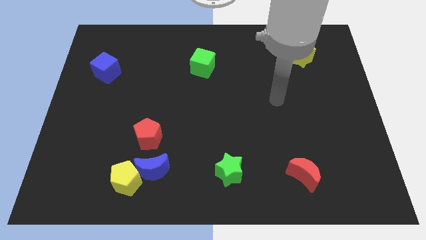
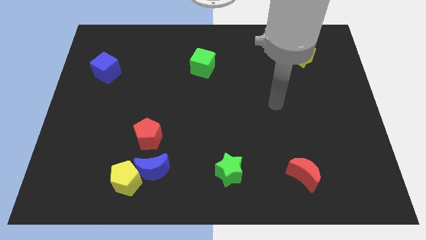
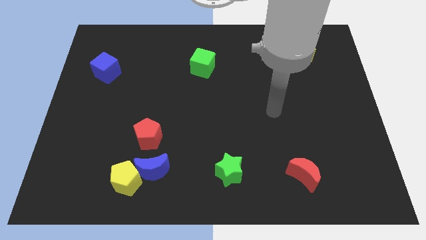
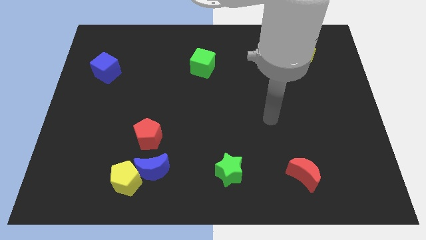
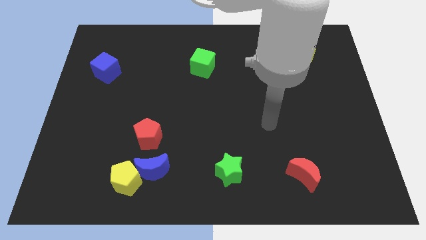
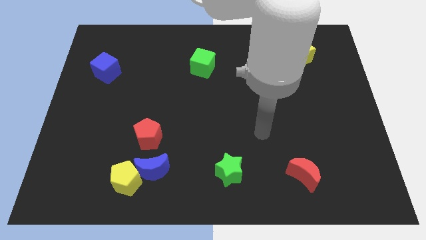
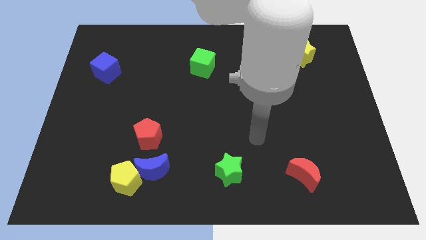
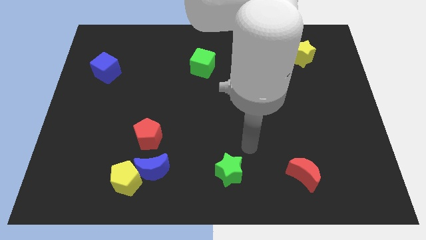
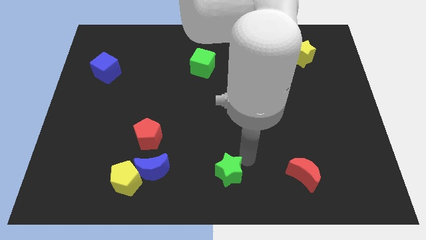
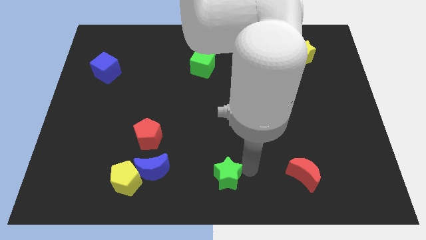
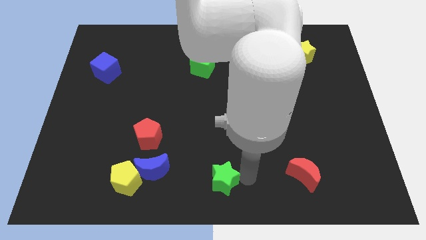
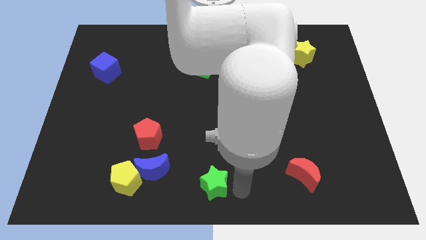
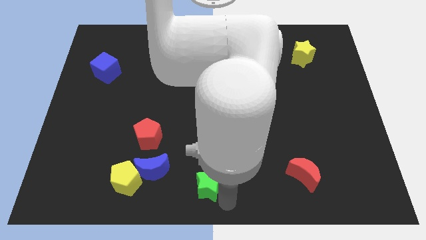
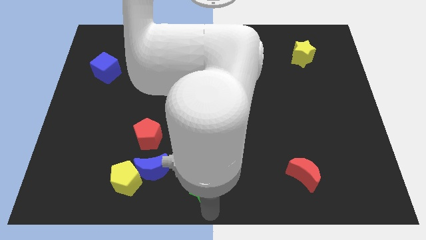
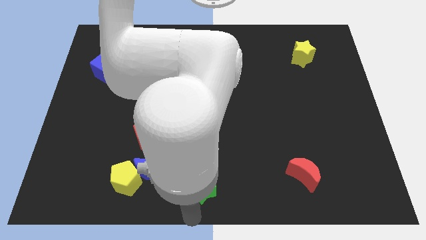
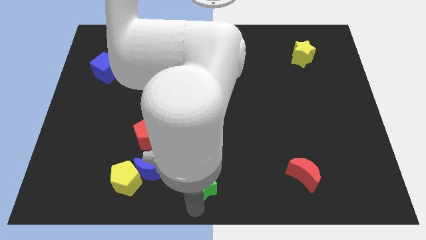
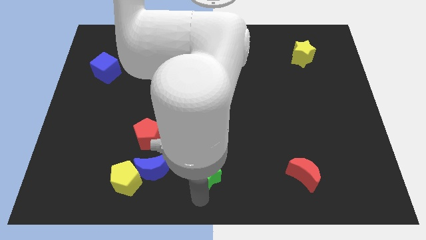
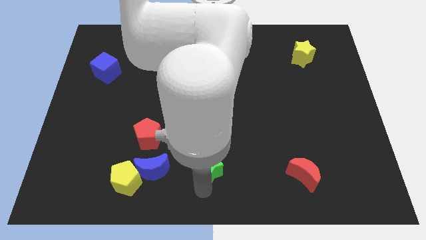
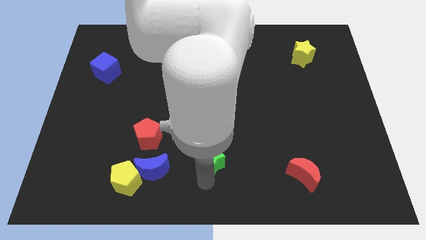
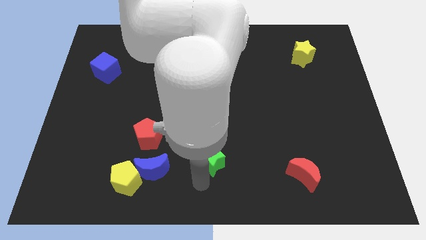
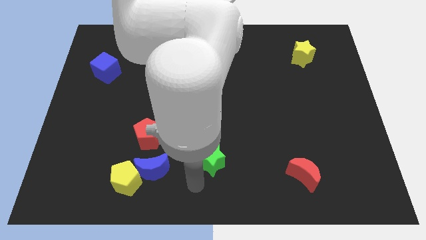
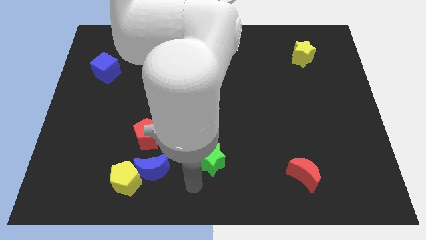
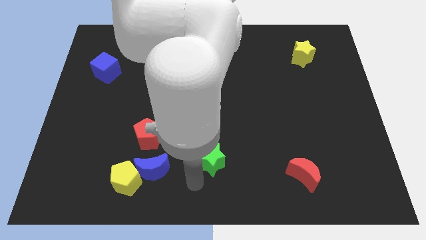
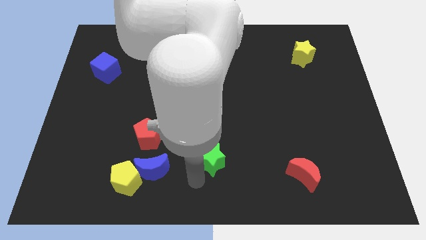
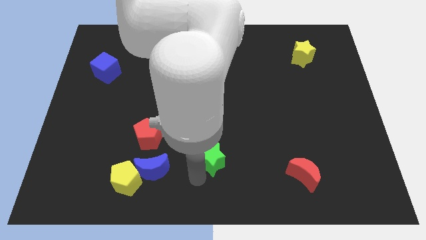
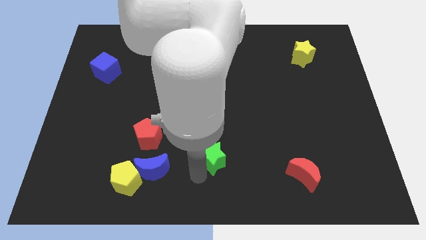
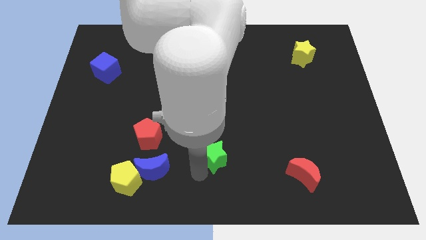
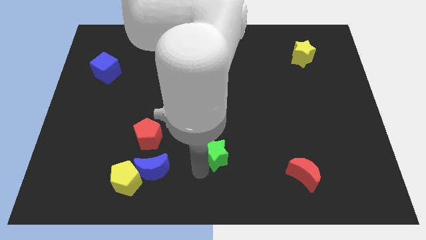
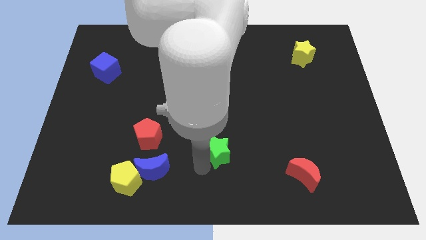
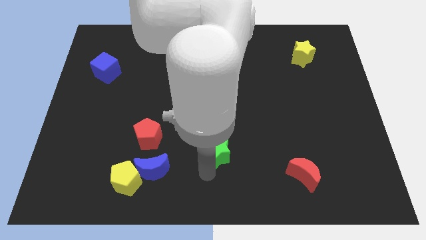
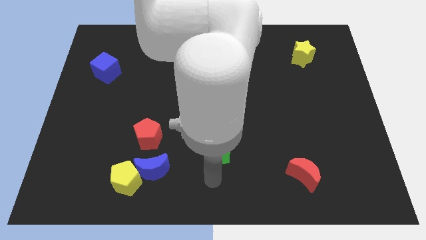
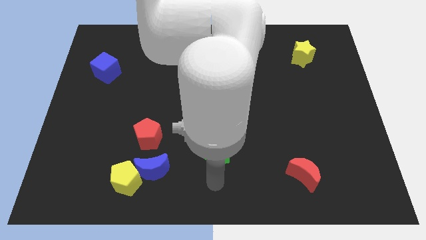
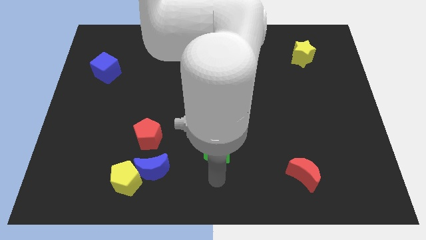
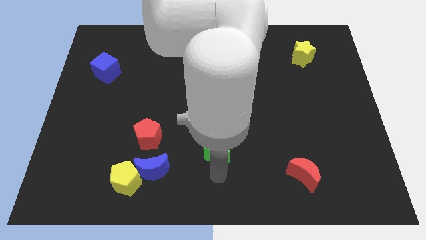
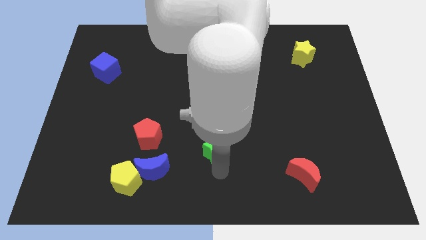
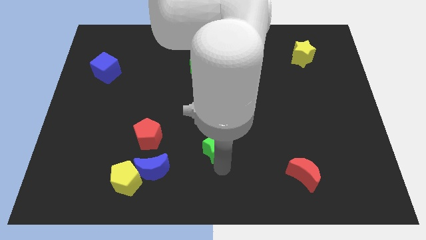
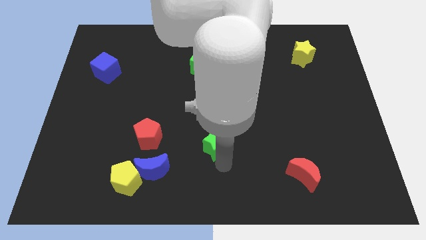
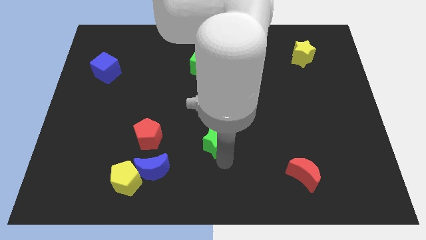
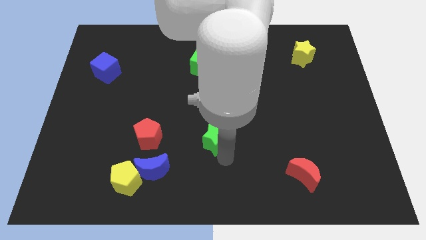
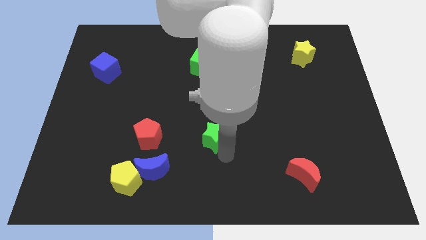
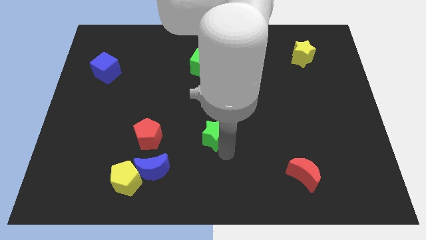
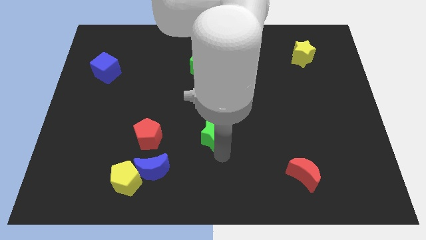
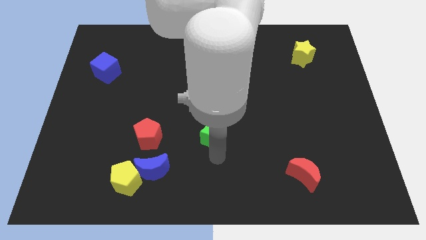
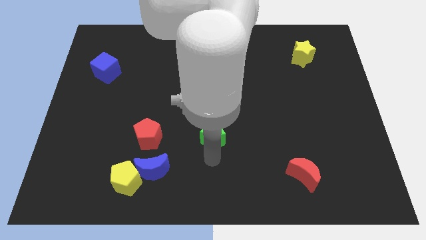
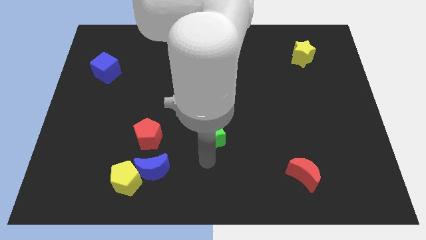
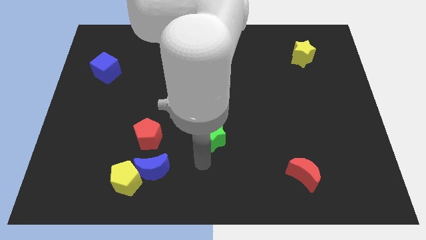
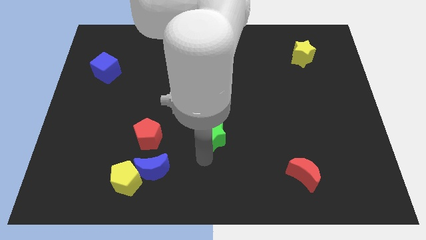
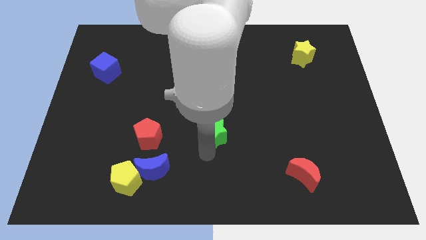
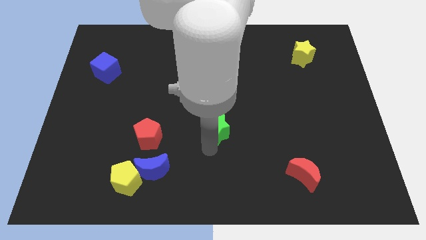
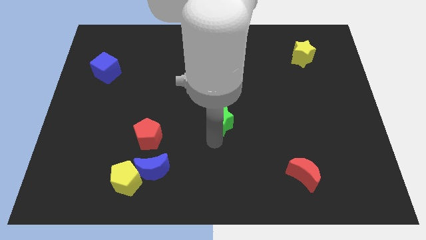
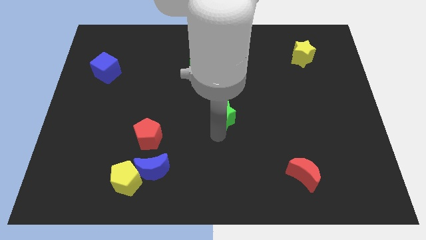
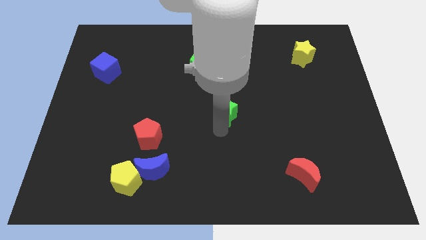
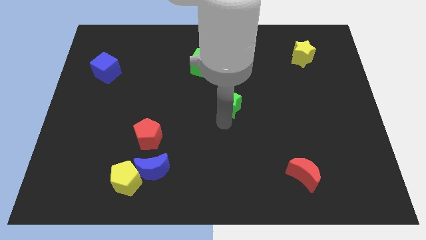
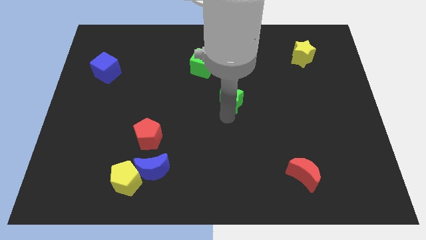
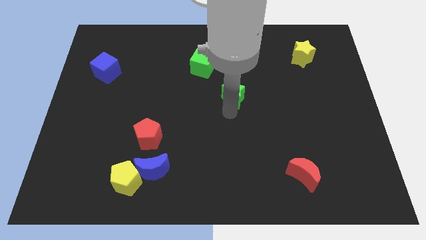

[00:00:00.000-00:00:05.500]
slide the green star upwards

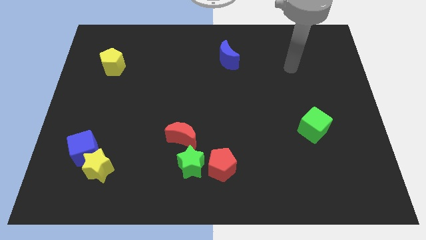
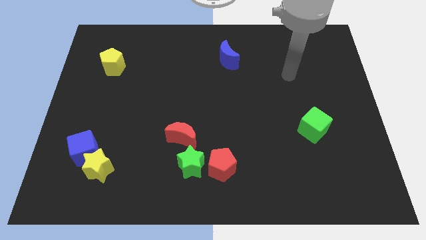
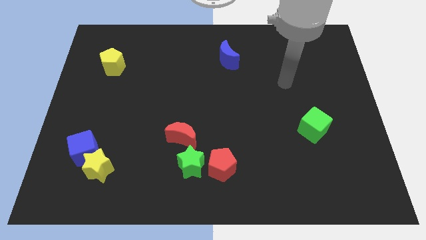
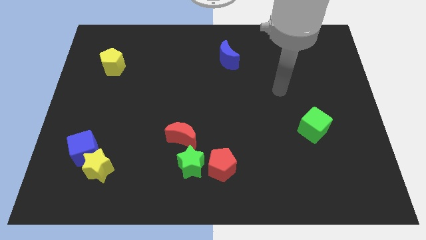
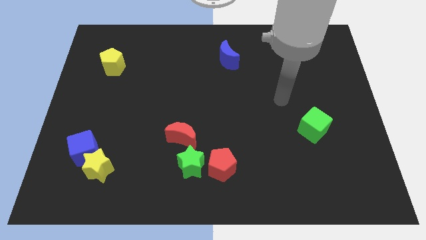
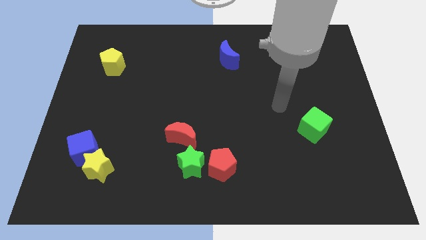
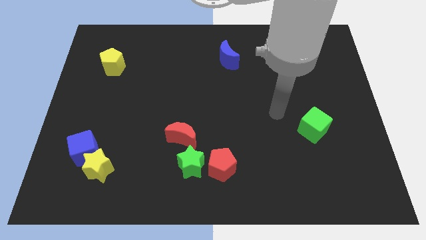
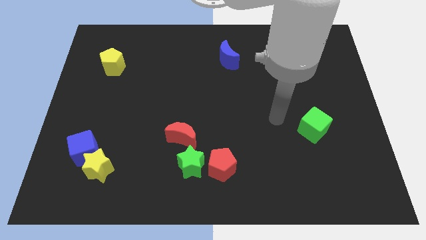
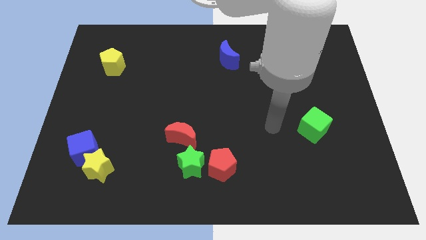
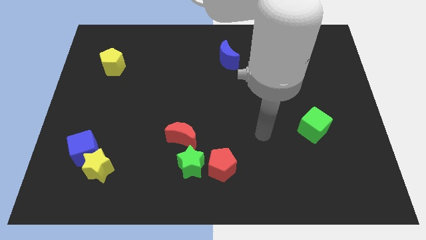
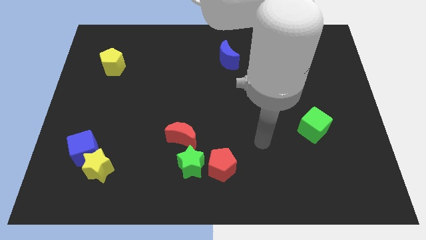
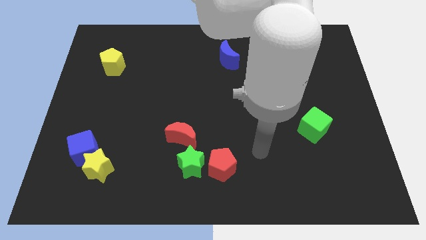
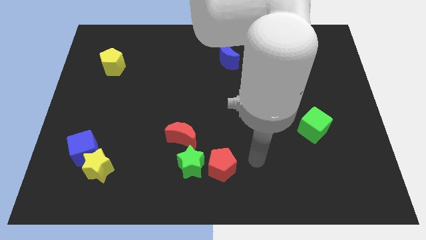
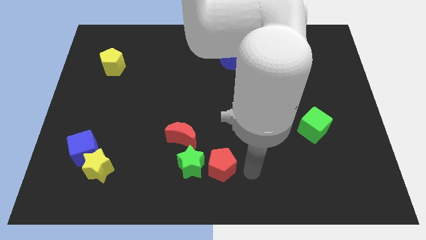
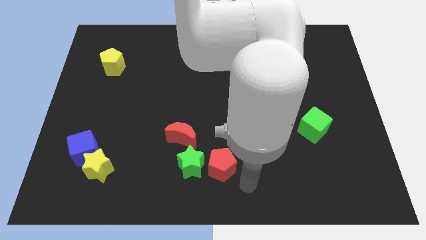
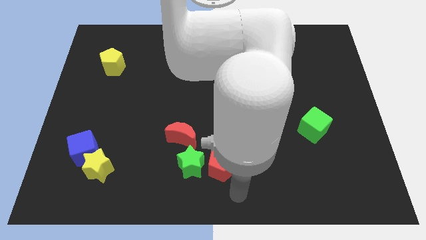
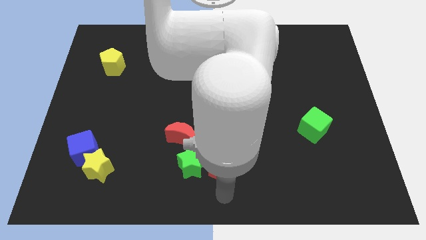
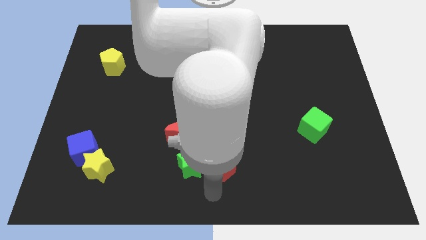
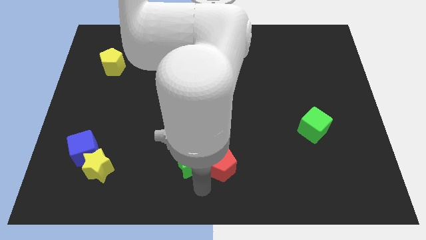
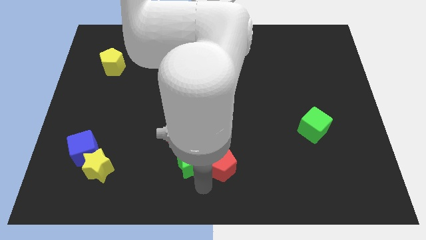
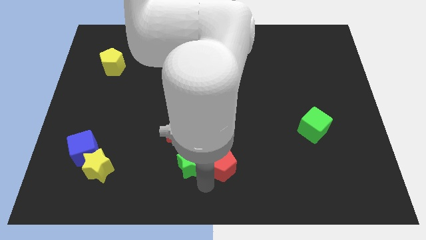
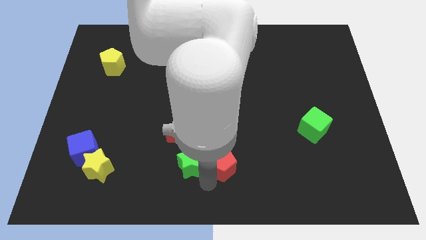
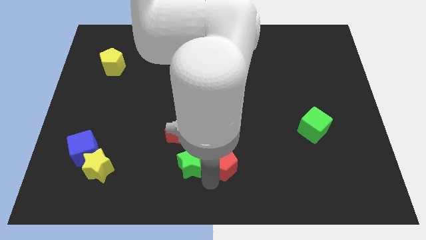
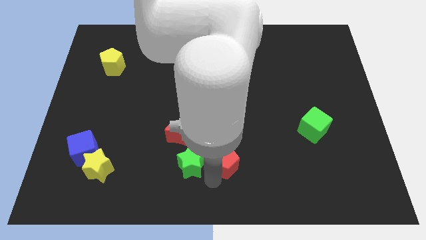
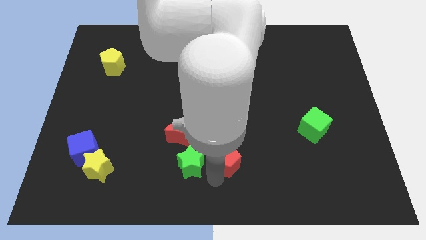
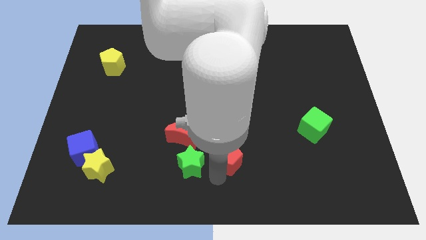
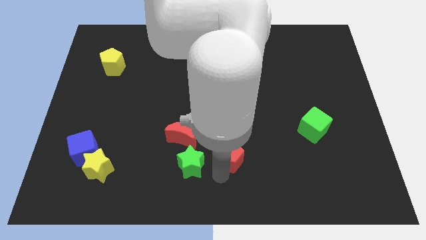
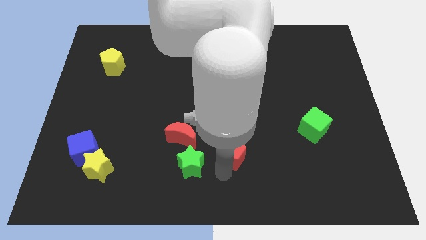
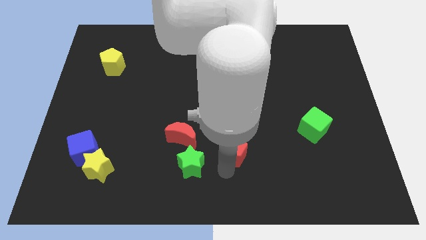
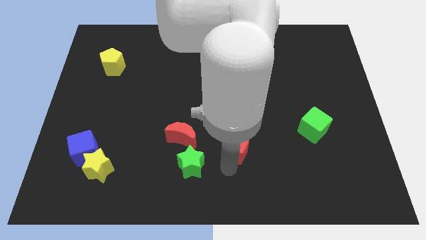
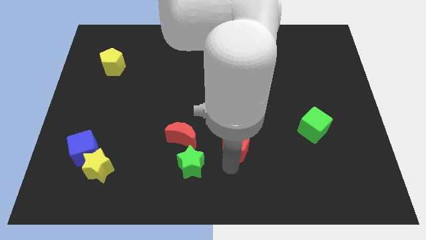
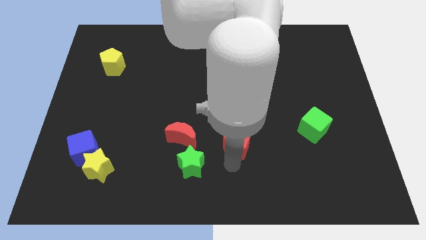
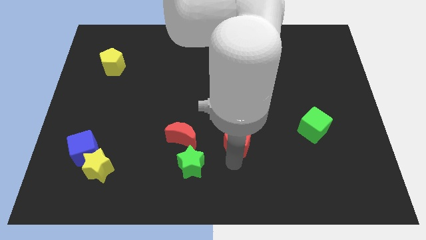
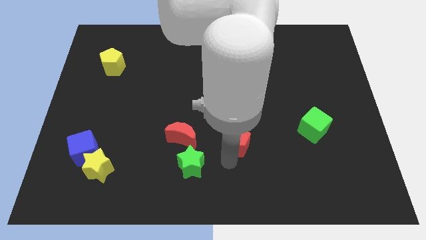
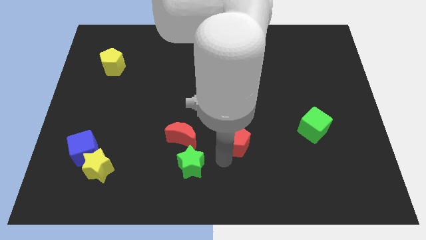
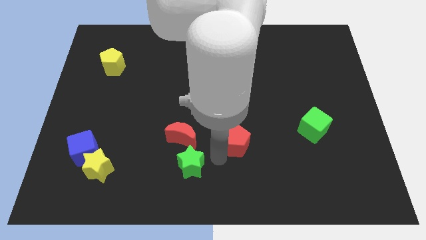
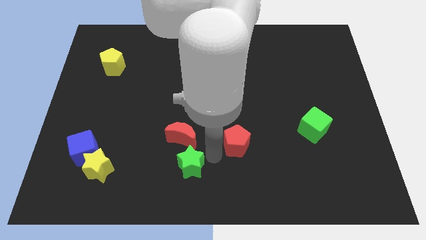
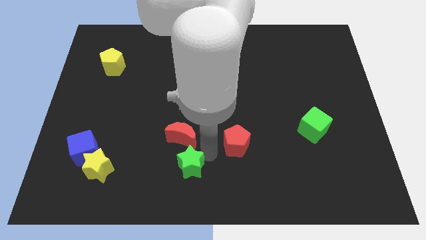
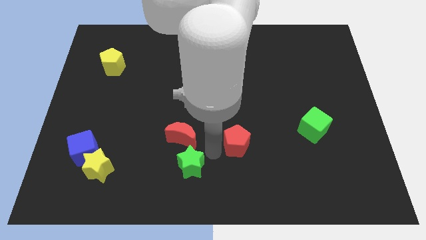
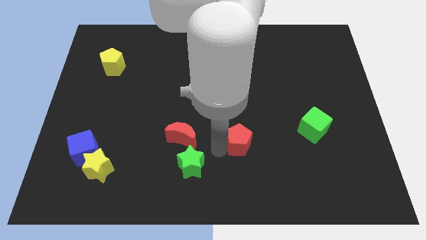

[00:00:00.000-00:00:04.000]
push the red pentagon diagonally upwards and to the right a little bit
